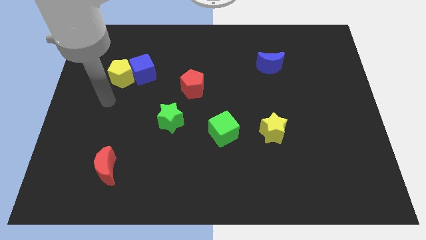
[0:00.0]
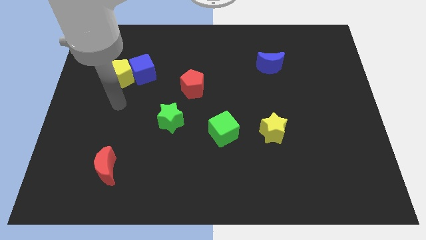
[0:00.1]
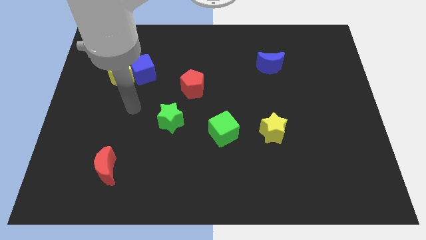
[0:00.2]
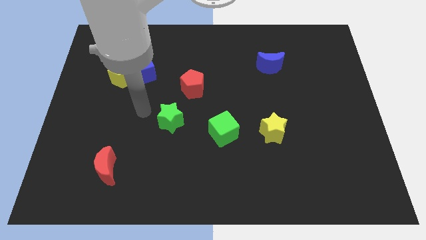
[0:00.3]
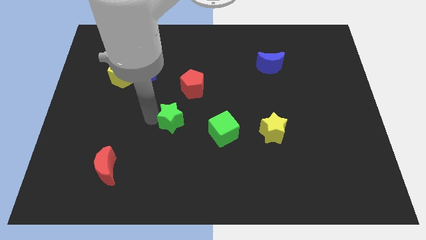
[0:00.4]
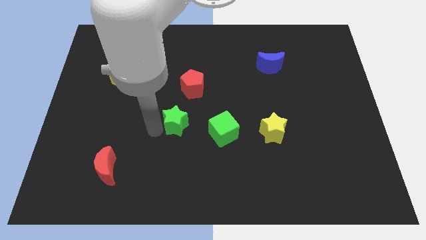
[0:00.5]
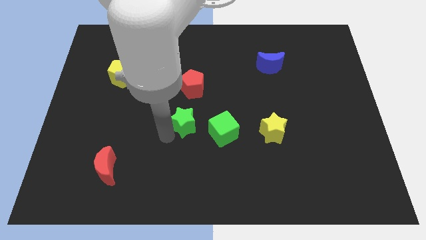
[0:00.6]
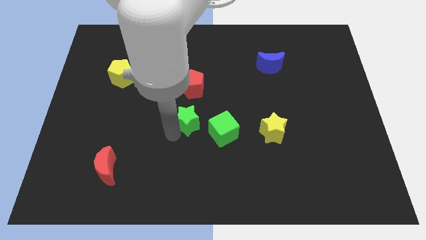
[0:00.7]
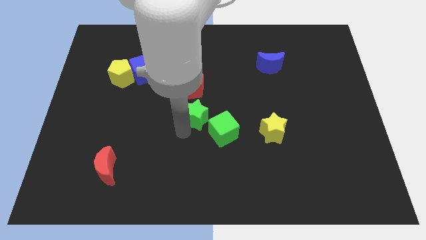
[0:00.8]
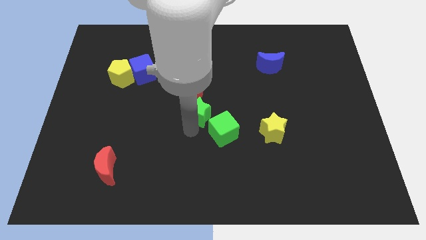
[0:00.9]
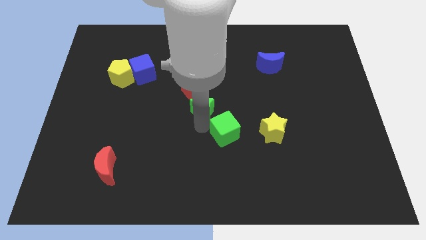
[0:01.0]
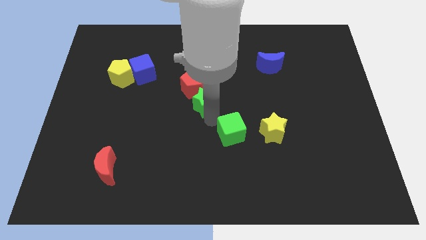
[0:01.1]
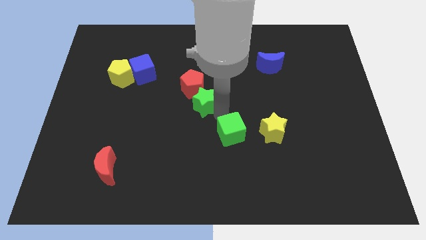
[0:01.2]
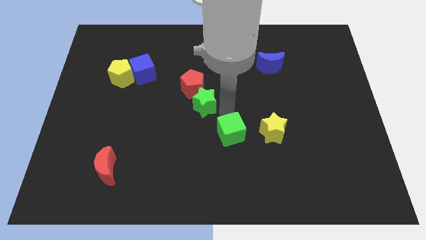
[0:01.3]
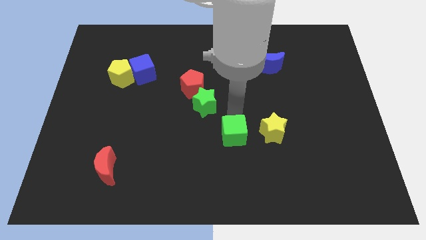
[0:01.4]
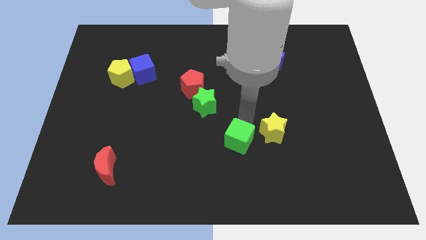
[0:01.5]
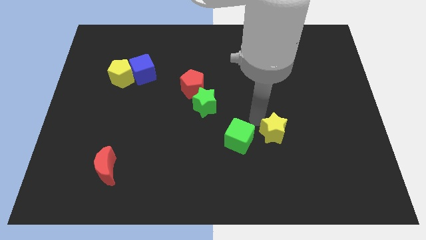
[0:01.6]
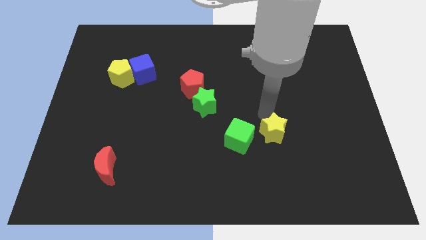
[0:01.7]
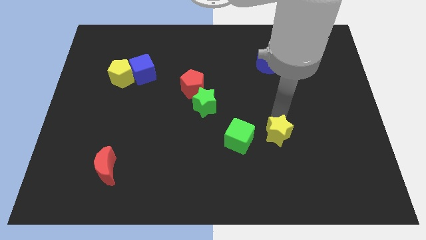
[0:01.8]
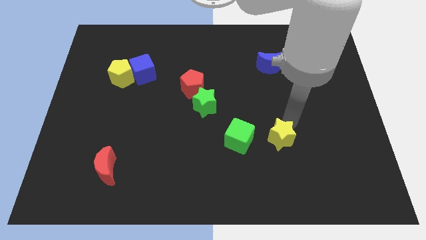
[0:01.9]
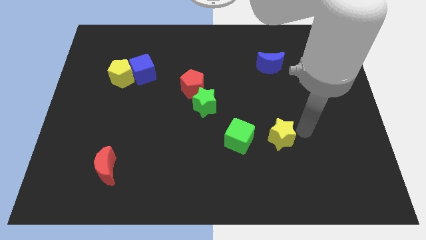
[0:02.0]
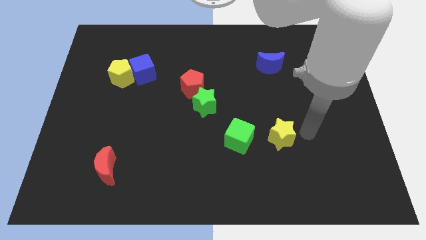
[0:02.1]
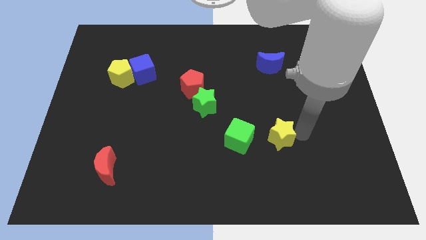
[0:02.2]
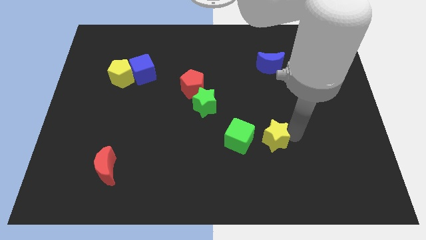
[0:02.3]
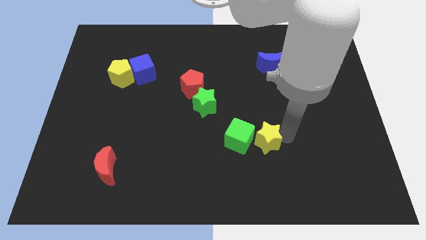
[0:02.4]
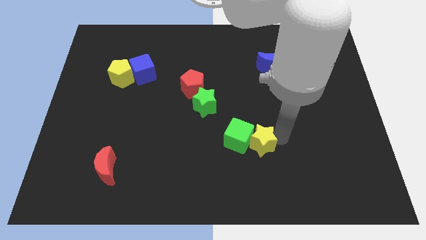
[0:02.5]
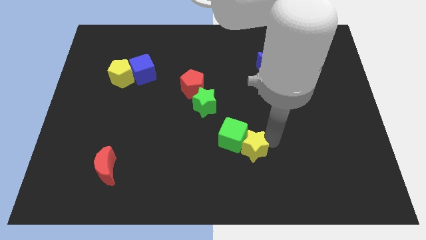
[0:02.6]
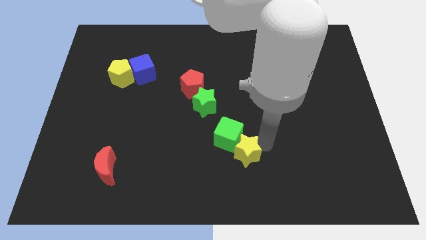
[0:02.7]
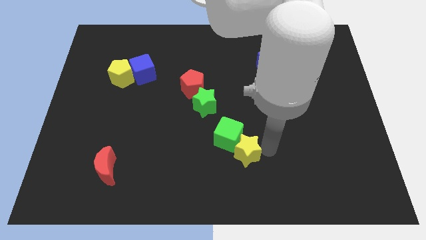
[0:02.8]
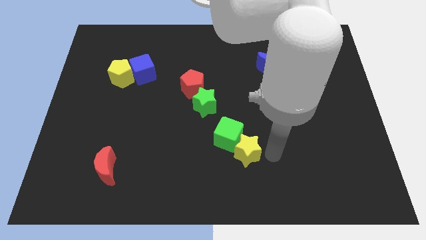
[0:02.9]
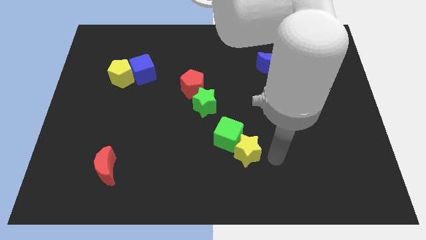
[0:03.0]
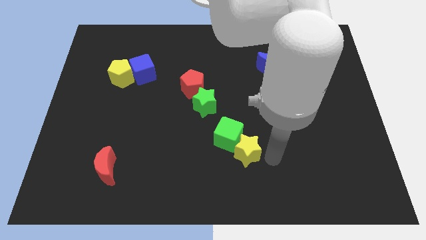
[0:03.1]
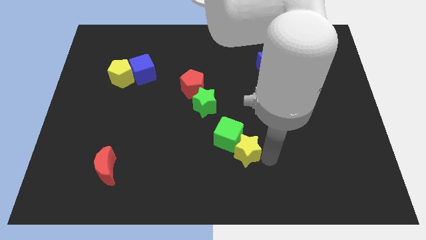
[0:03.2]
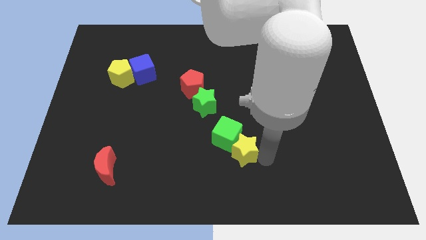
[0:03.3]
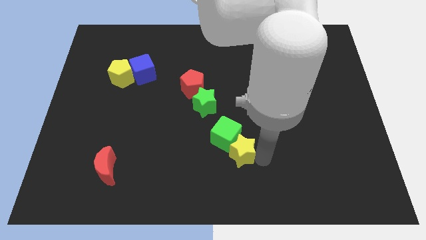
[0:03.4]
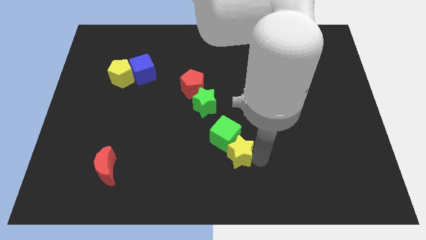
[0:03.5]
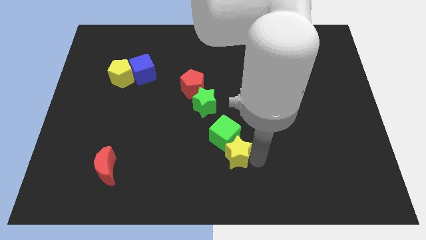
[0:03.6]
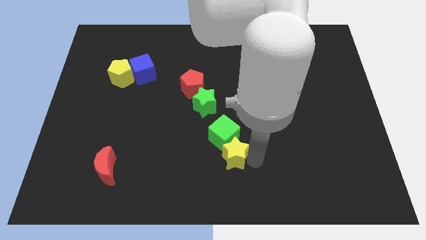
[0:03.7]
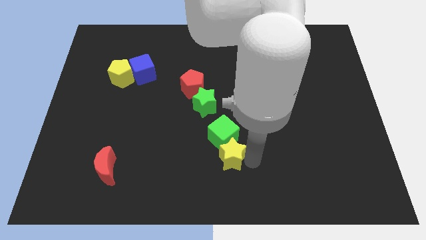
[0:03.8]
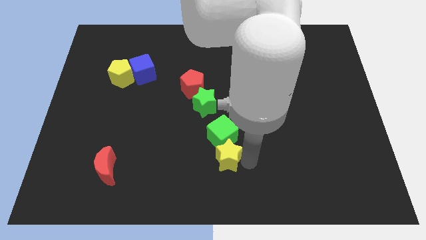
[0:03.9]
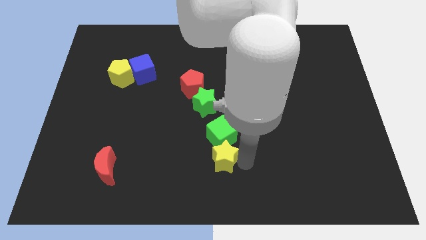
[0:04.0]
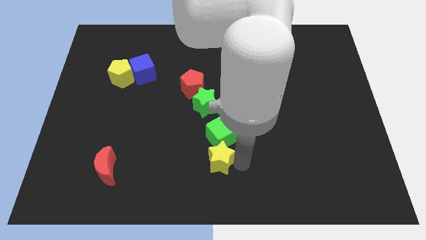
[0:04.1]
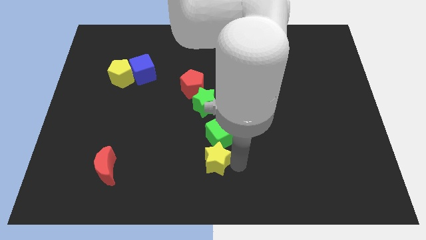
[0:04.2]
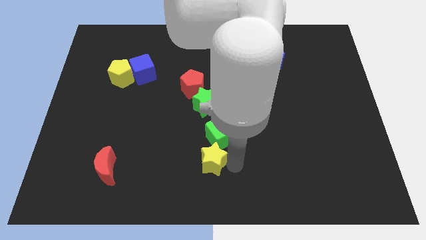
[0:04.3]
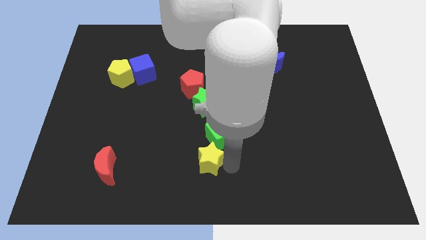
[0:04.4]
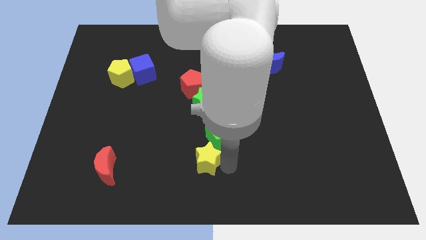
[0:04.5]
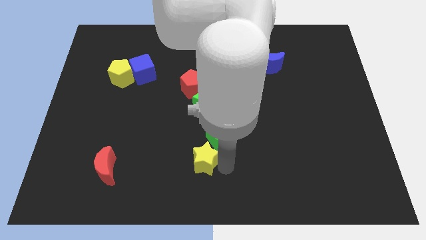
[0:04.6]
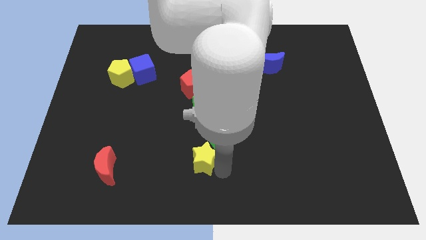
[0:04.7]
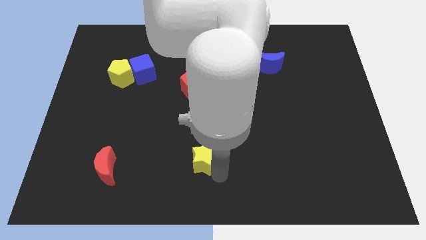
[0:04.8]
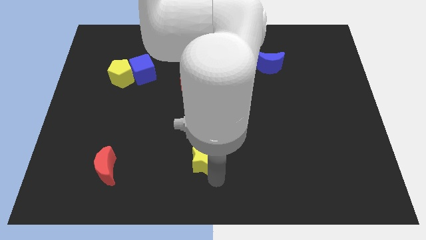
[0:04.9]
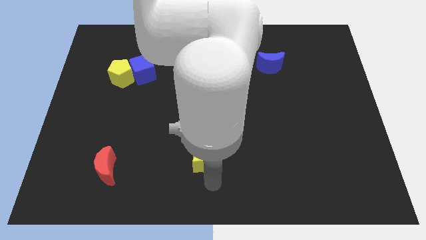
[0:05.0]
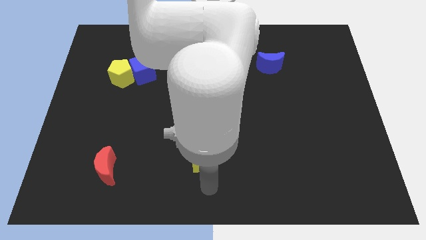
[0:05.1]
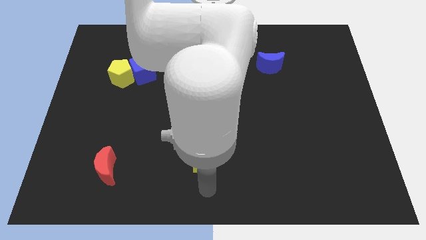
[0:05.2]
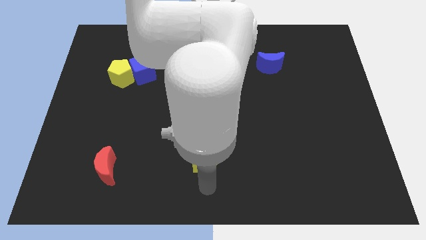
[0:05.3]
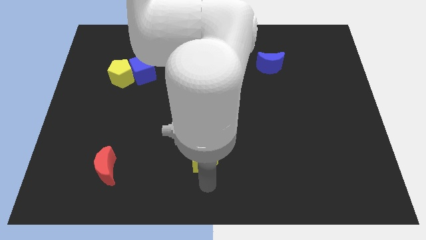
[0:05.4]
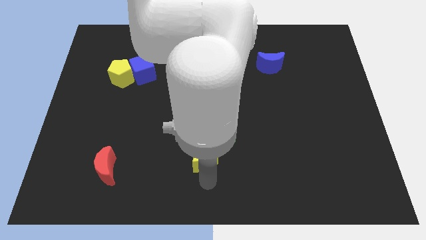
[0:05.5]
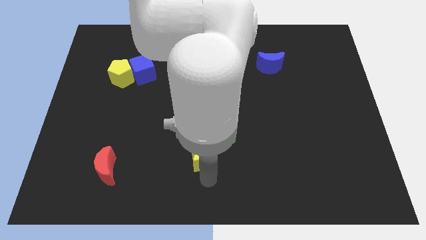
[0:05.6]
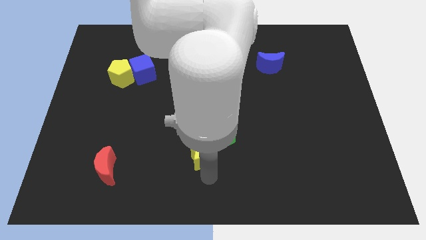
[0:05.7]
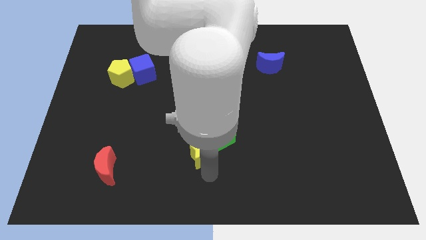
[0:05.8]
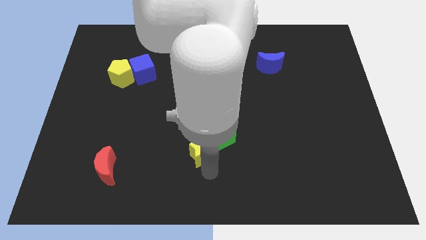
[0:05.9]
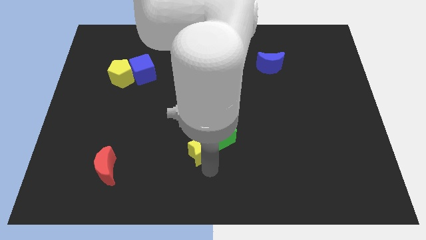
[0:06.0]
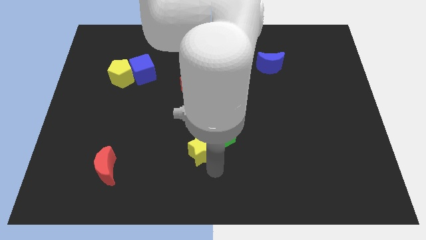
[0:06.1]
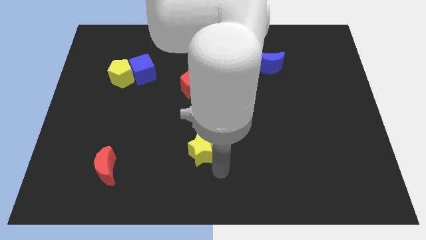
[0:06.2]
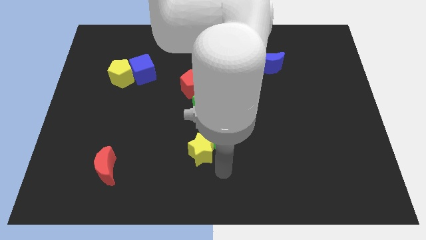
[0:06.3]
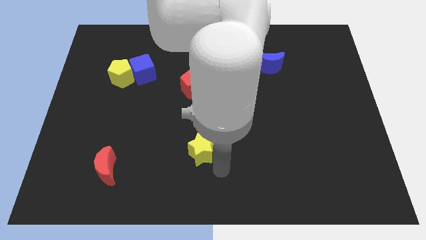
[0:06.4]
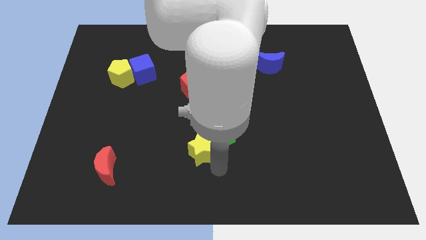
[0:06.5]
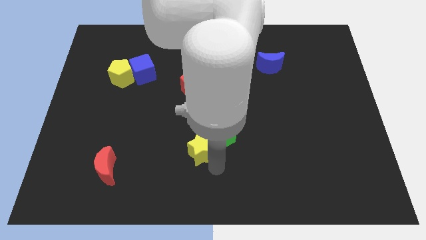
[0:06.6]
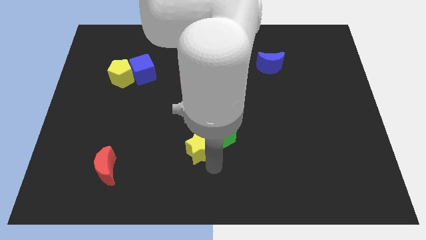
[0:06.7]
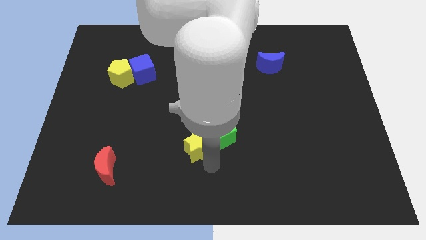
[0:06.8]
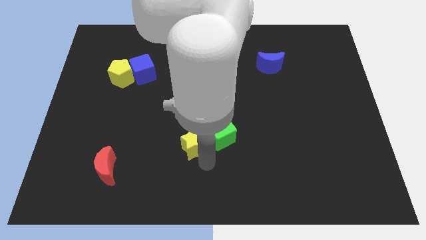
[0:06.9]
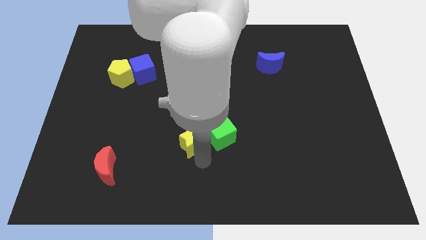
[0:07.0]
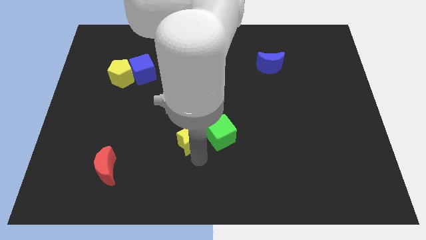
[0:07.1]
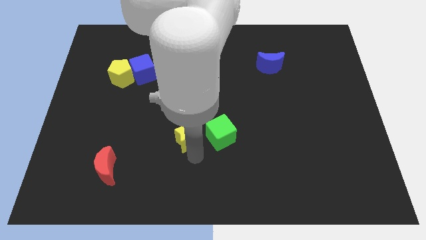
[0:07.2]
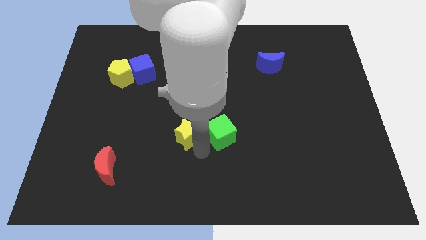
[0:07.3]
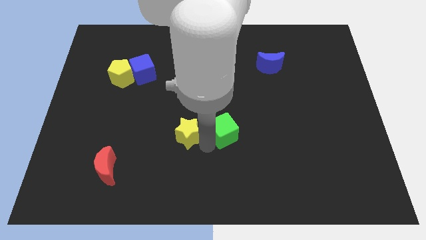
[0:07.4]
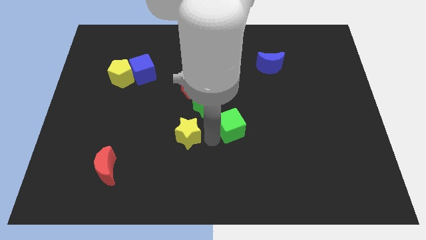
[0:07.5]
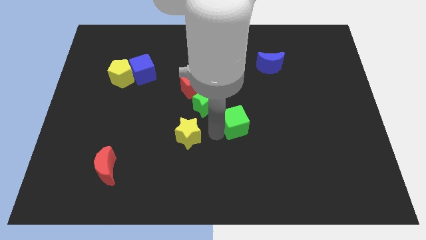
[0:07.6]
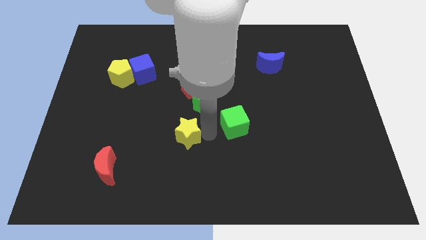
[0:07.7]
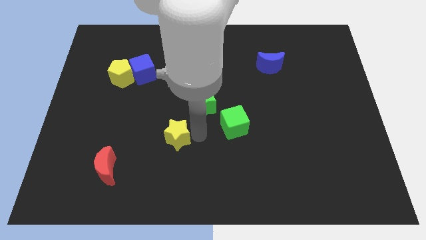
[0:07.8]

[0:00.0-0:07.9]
move the yellow star to the left

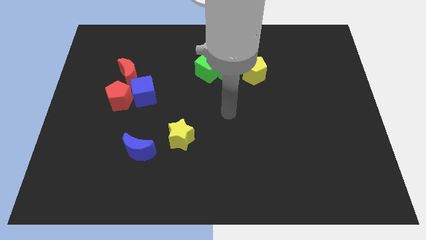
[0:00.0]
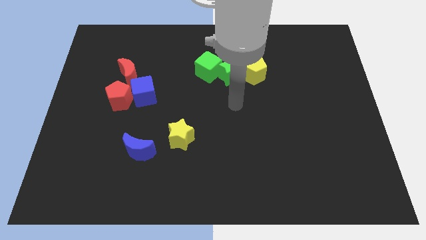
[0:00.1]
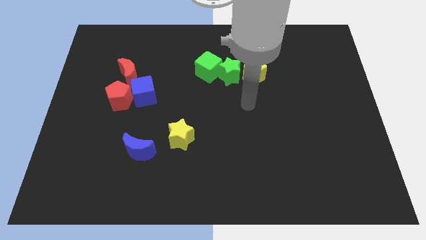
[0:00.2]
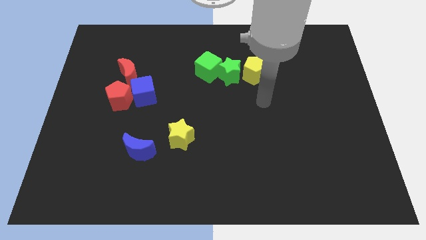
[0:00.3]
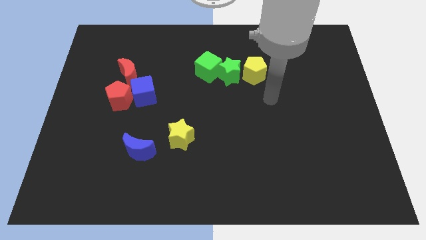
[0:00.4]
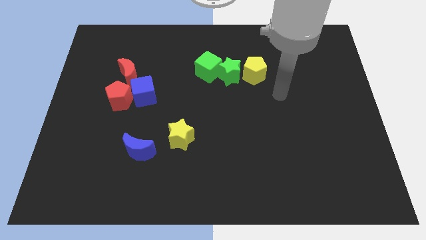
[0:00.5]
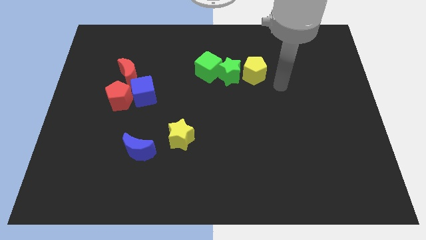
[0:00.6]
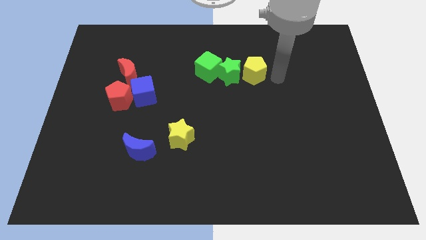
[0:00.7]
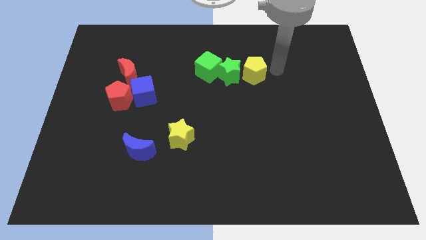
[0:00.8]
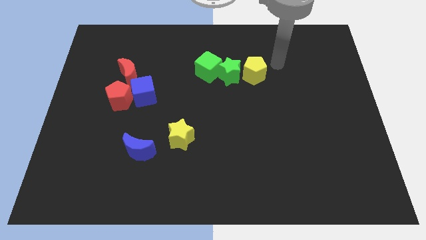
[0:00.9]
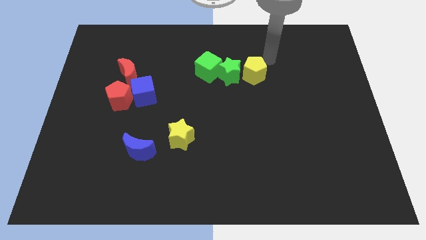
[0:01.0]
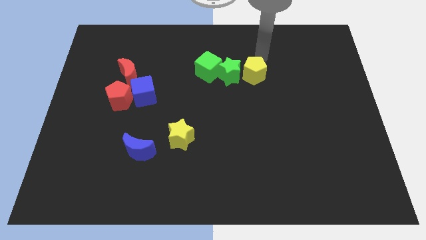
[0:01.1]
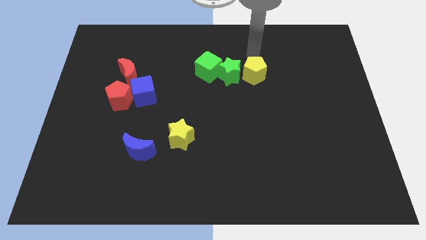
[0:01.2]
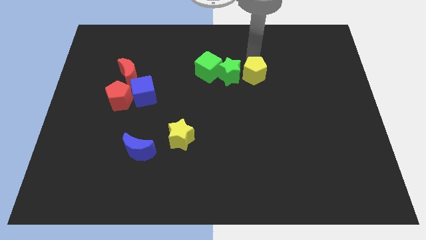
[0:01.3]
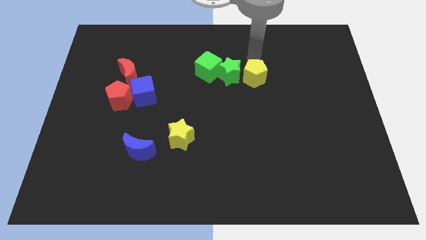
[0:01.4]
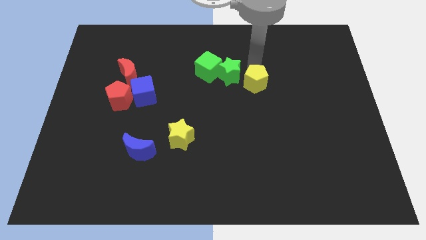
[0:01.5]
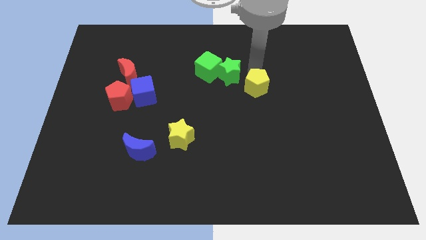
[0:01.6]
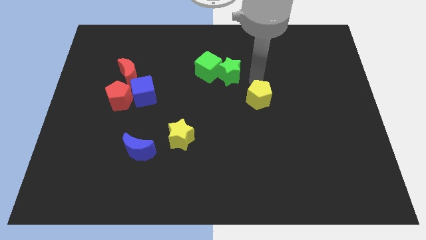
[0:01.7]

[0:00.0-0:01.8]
slide the yellow pentagon somewhat downwards
